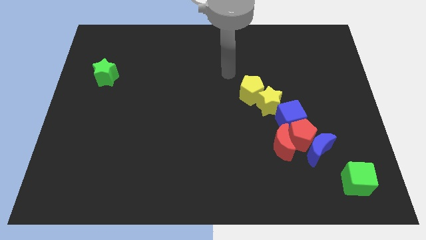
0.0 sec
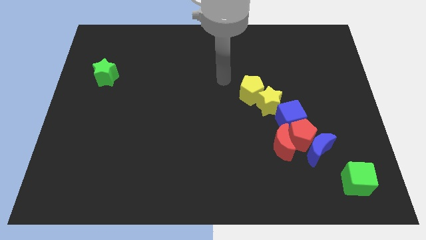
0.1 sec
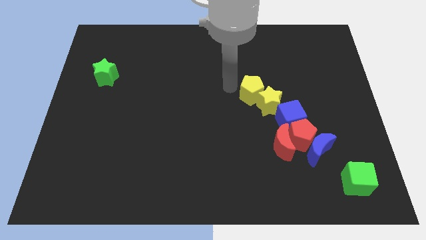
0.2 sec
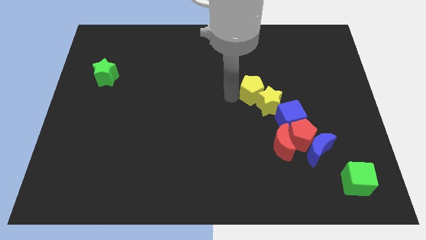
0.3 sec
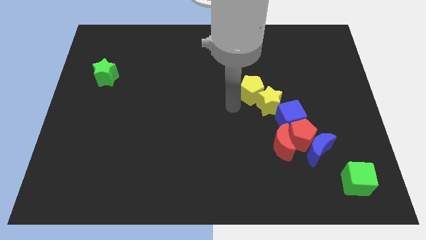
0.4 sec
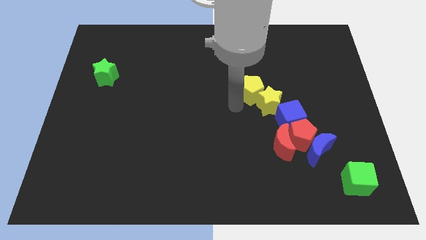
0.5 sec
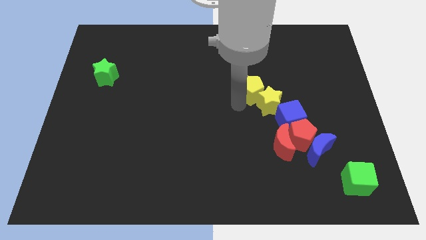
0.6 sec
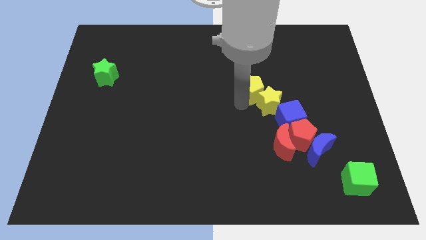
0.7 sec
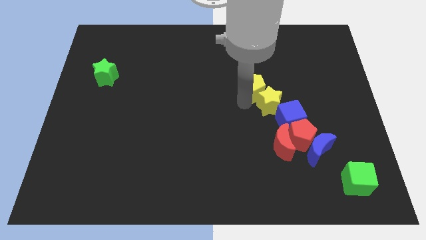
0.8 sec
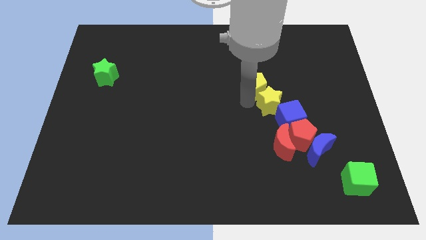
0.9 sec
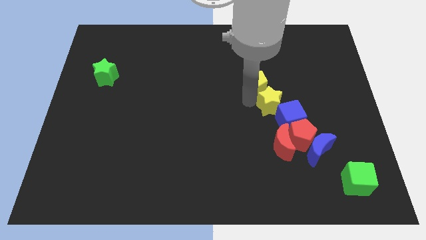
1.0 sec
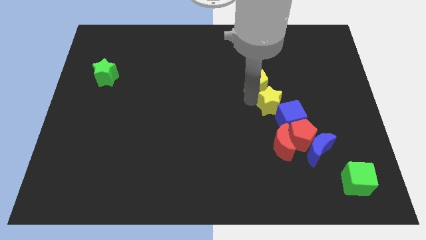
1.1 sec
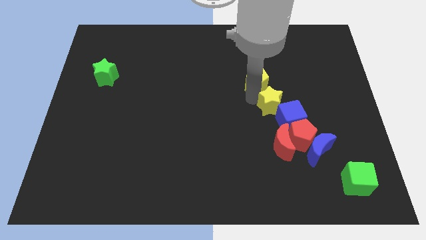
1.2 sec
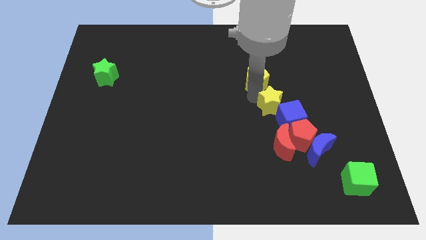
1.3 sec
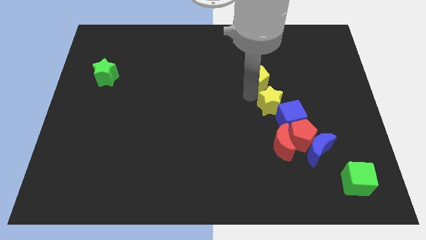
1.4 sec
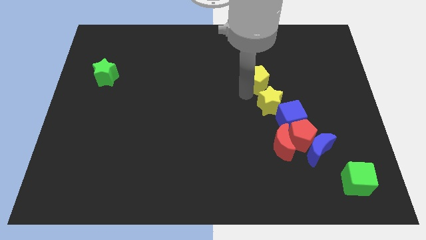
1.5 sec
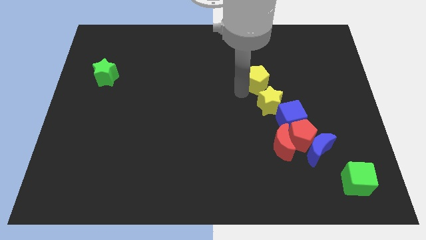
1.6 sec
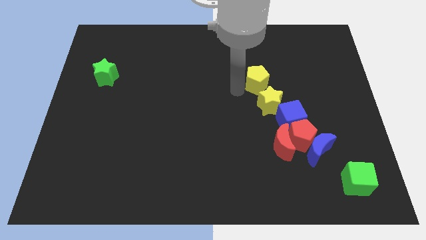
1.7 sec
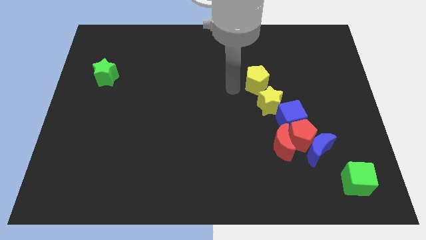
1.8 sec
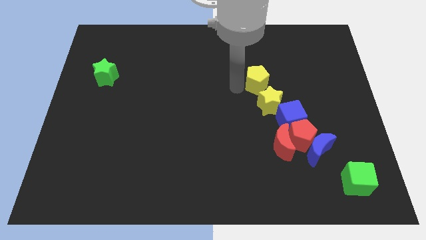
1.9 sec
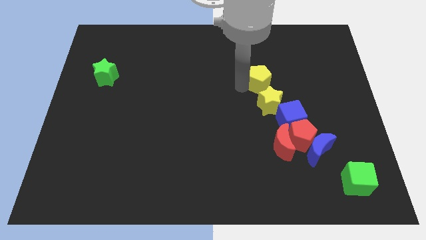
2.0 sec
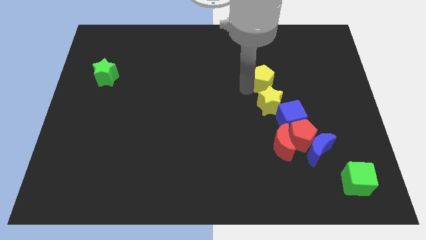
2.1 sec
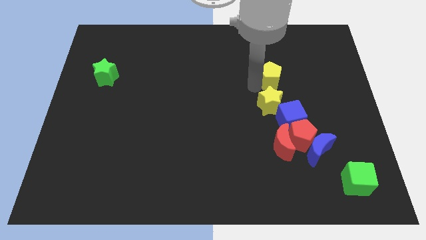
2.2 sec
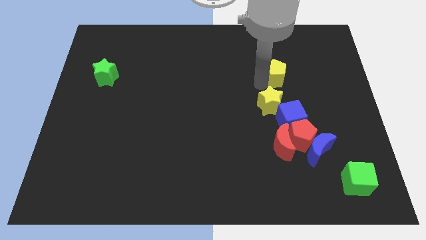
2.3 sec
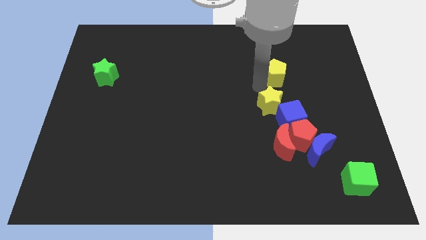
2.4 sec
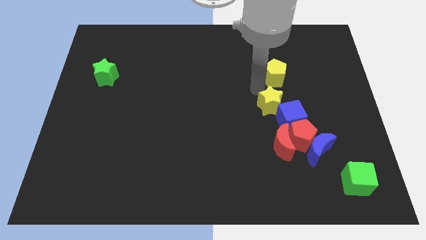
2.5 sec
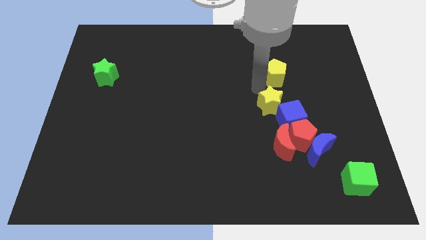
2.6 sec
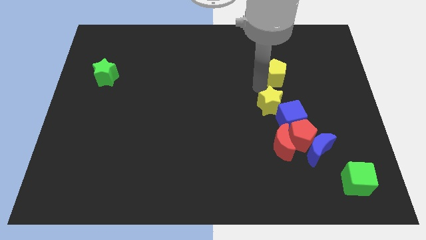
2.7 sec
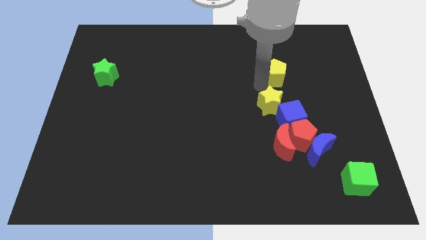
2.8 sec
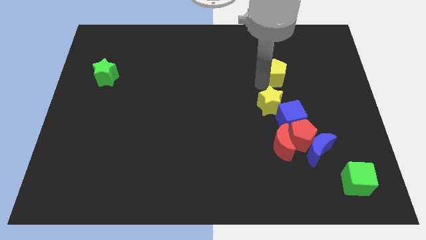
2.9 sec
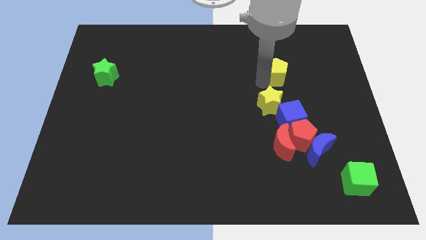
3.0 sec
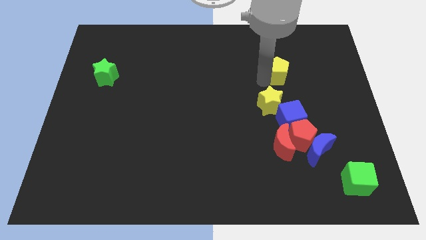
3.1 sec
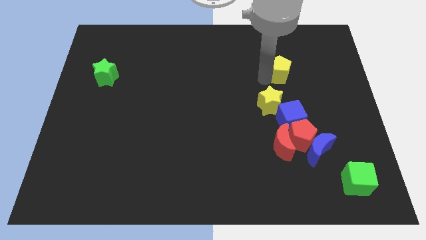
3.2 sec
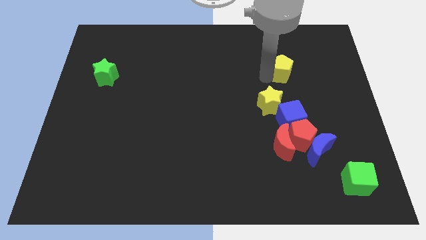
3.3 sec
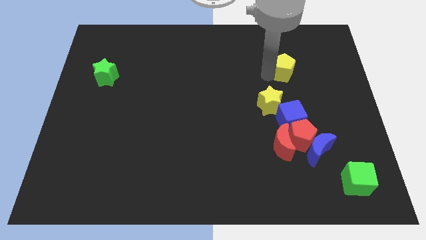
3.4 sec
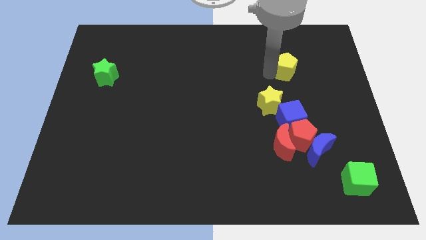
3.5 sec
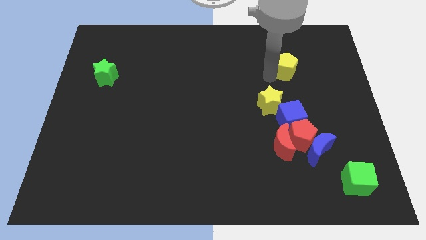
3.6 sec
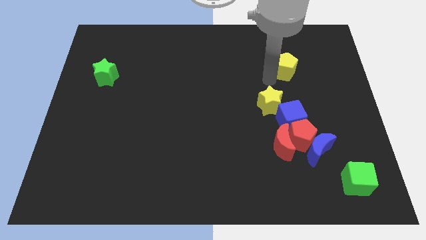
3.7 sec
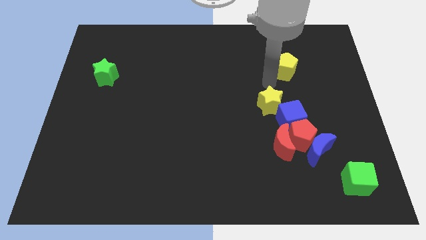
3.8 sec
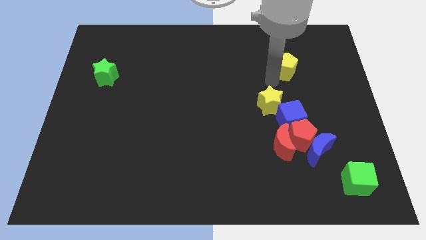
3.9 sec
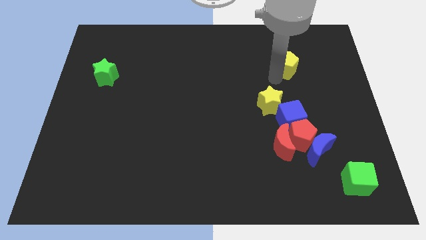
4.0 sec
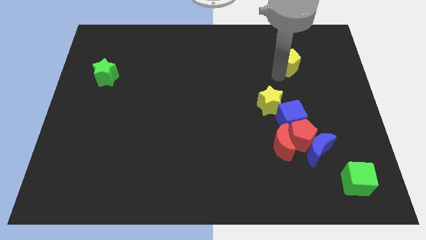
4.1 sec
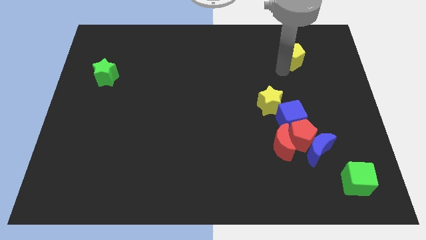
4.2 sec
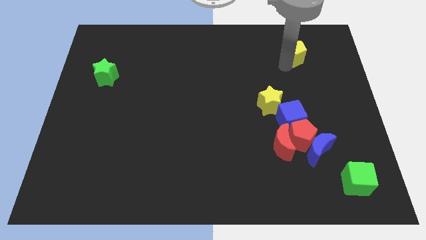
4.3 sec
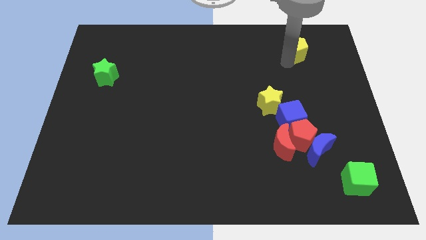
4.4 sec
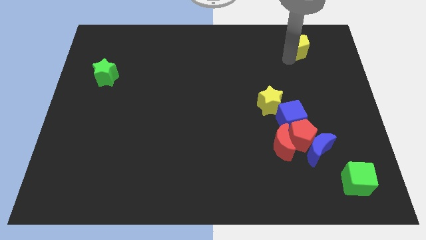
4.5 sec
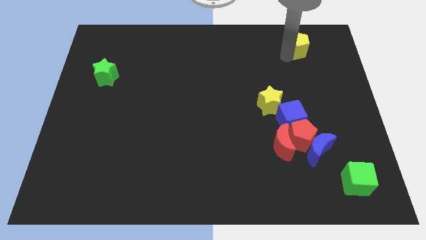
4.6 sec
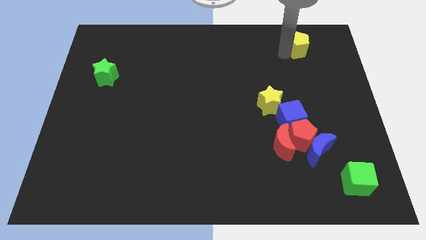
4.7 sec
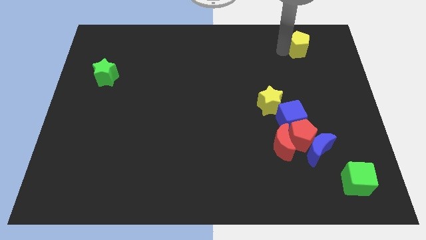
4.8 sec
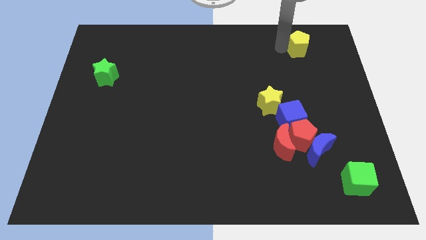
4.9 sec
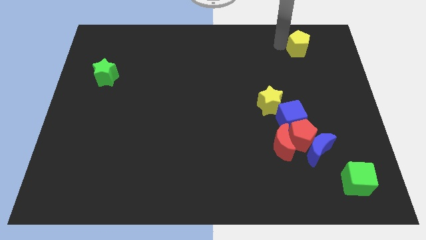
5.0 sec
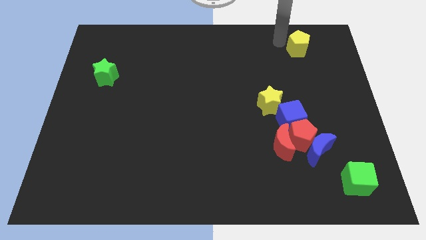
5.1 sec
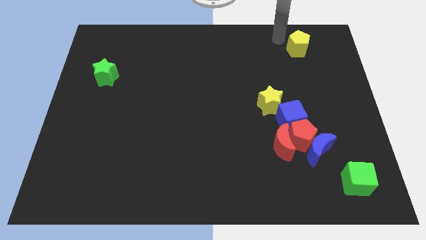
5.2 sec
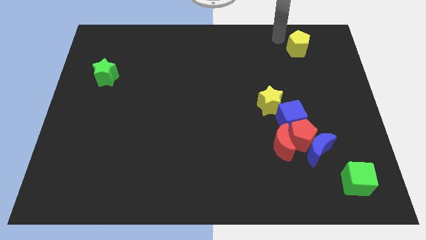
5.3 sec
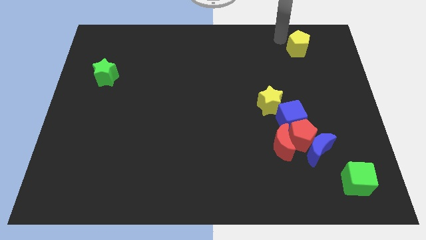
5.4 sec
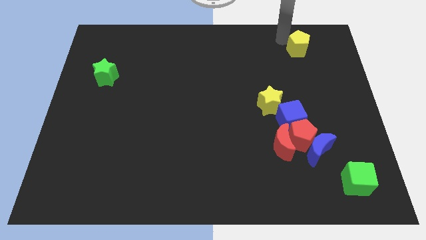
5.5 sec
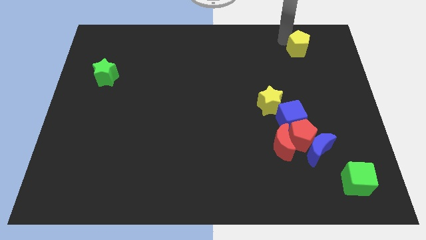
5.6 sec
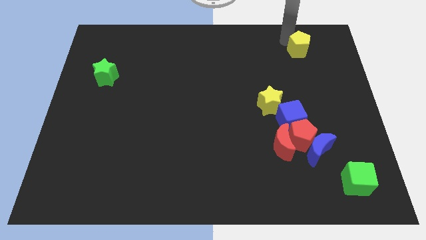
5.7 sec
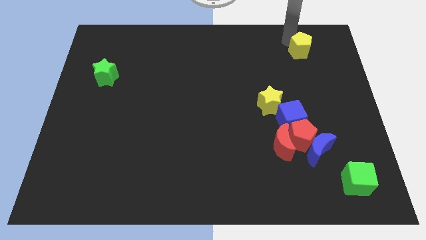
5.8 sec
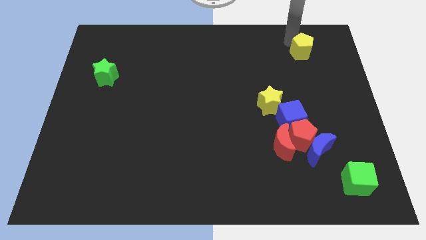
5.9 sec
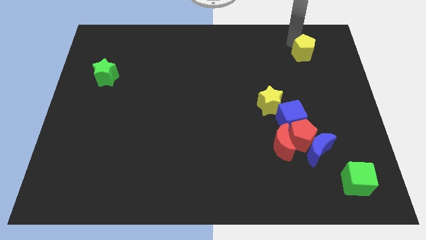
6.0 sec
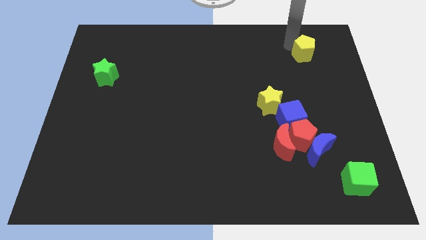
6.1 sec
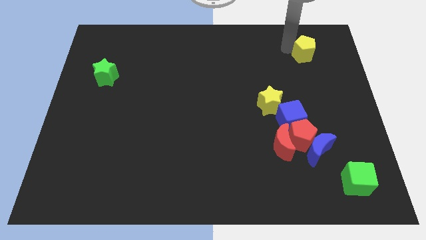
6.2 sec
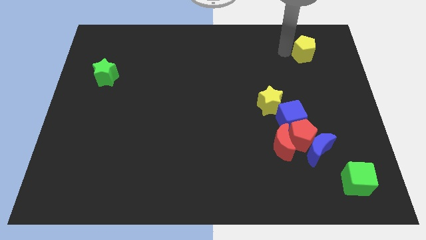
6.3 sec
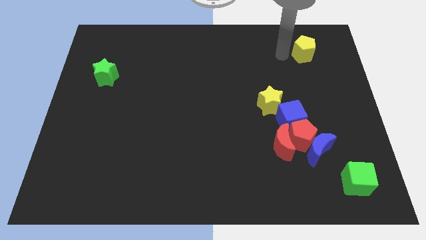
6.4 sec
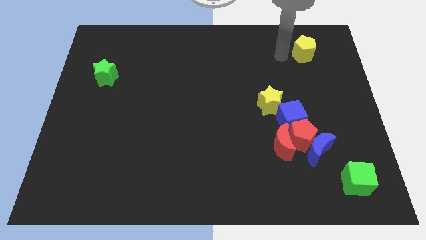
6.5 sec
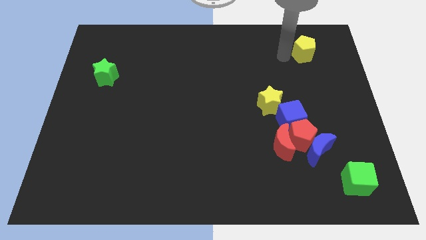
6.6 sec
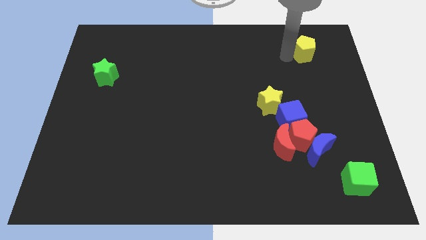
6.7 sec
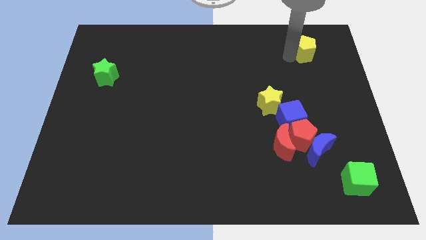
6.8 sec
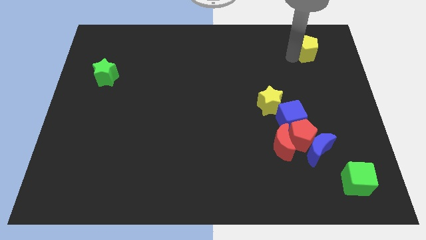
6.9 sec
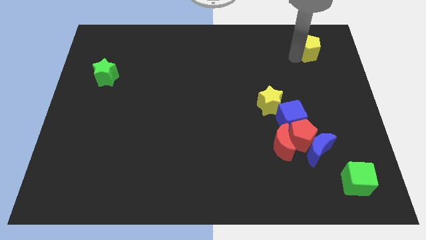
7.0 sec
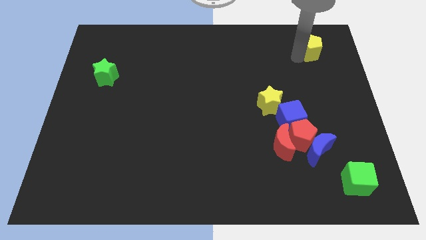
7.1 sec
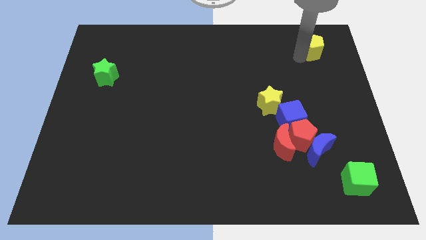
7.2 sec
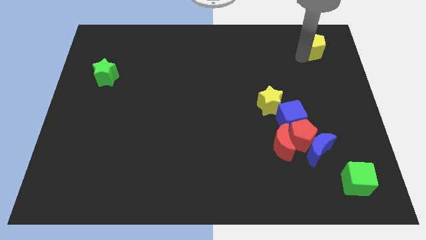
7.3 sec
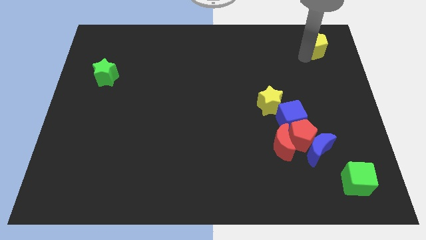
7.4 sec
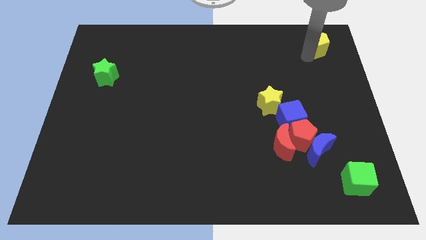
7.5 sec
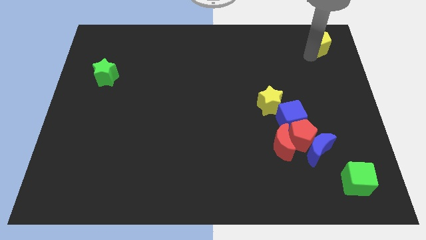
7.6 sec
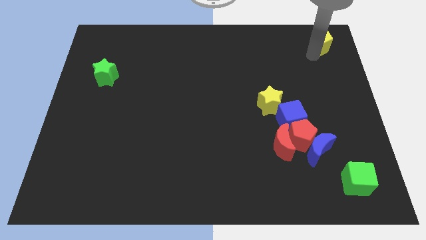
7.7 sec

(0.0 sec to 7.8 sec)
slide the yellow pentagon to the top right corner
